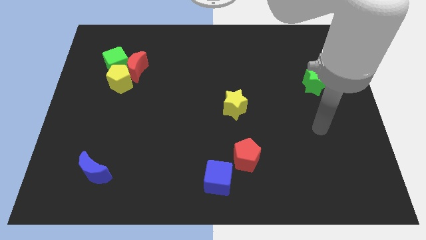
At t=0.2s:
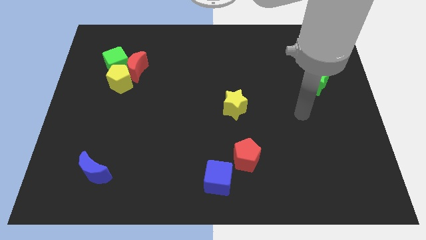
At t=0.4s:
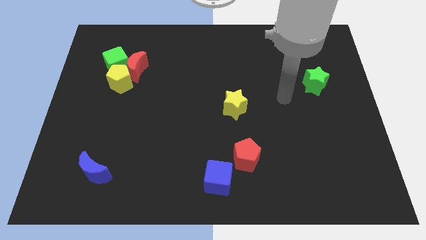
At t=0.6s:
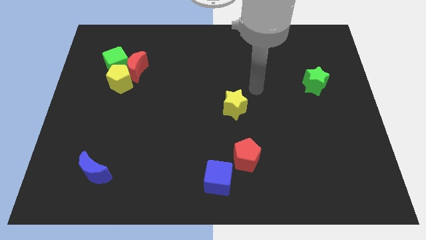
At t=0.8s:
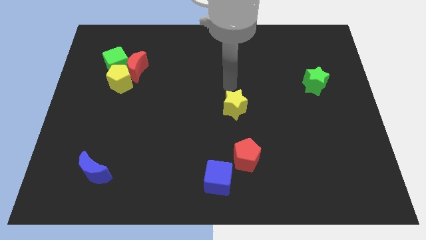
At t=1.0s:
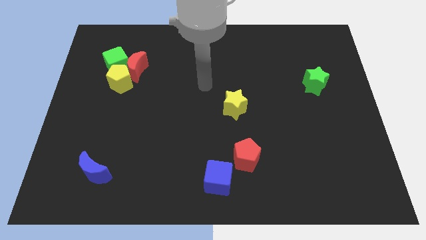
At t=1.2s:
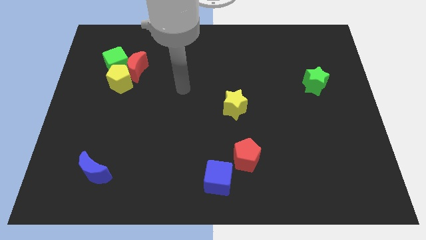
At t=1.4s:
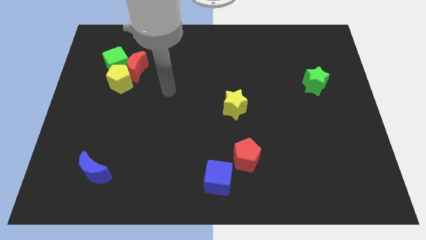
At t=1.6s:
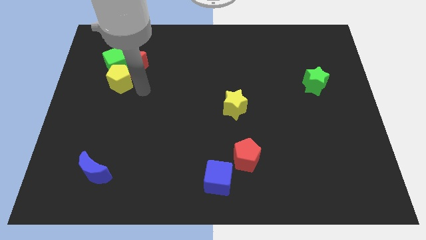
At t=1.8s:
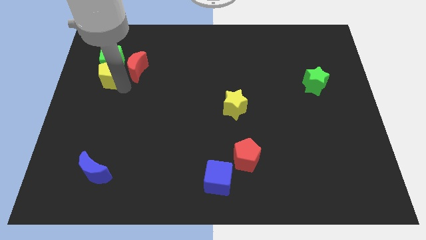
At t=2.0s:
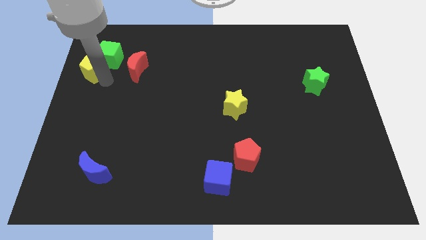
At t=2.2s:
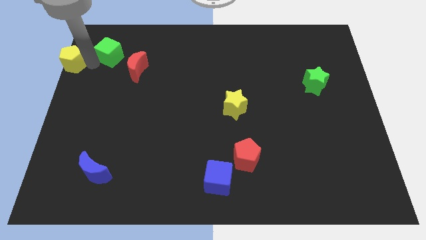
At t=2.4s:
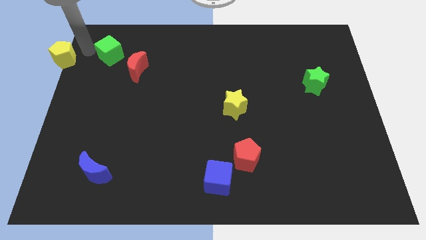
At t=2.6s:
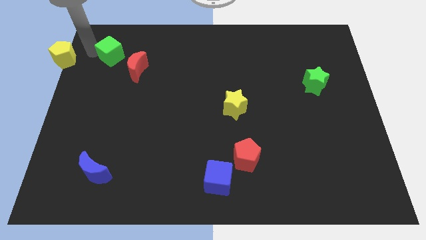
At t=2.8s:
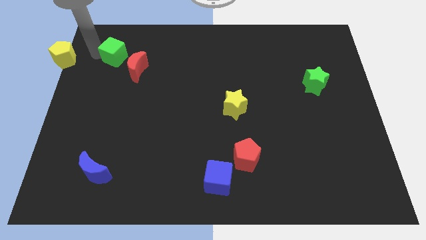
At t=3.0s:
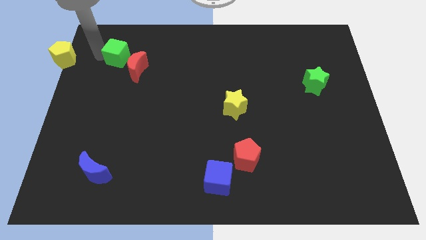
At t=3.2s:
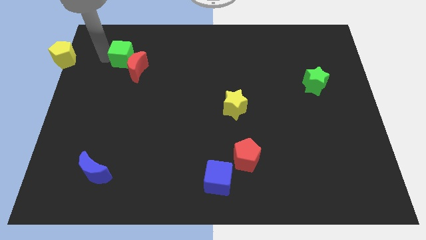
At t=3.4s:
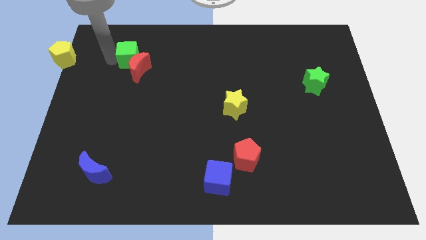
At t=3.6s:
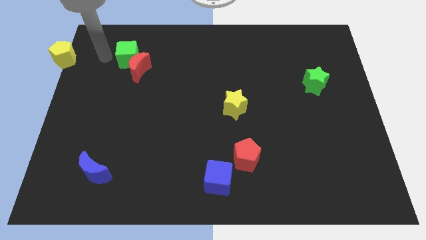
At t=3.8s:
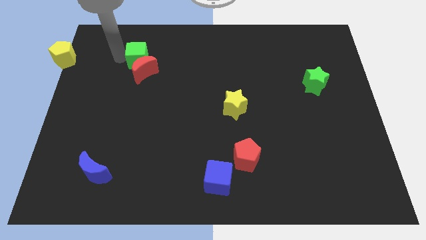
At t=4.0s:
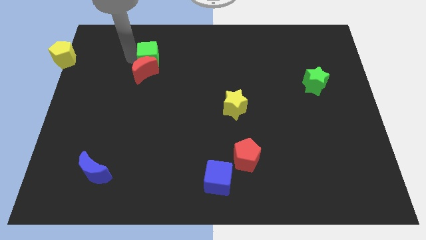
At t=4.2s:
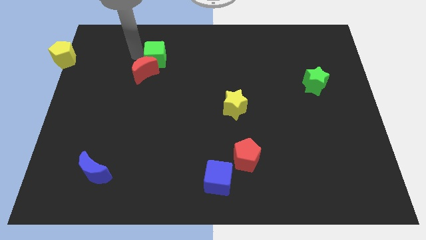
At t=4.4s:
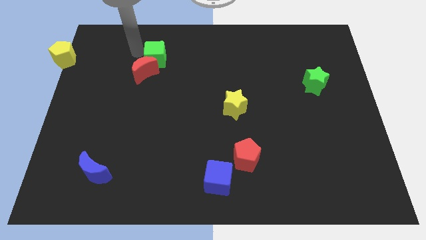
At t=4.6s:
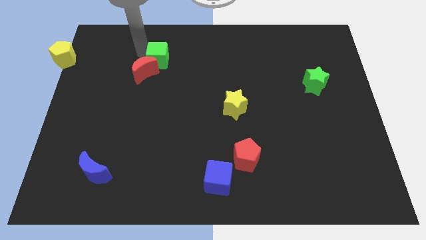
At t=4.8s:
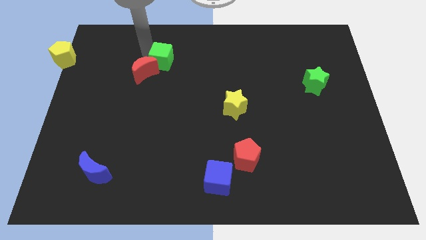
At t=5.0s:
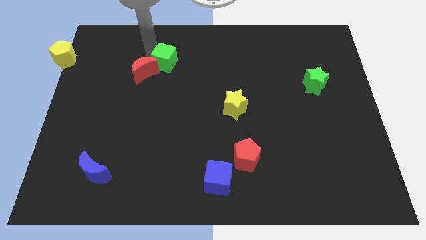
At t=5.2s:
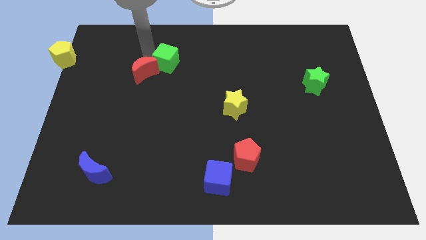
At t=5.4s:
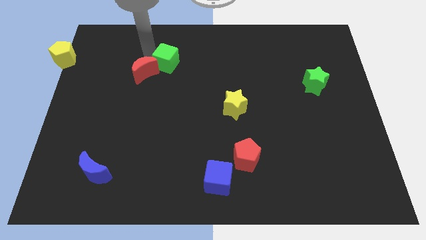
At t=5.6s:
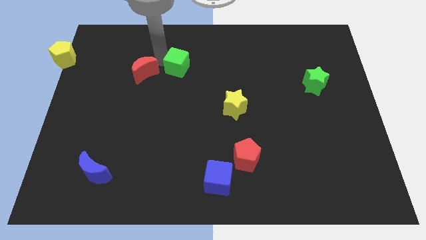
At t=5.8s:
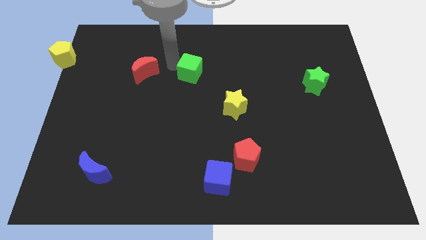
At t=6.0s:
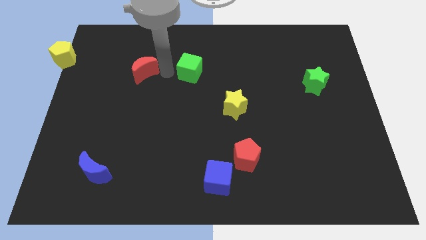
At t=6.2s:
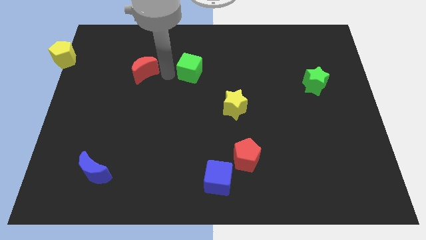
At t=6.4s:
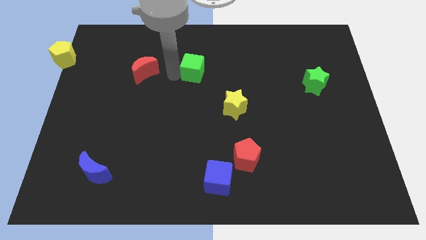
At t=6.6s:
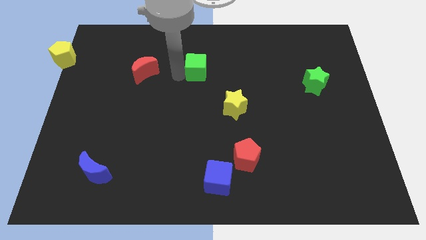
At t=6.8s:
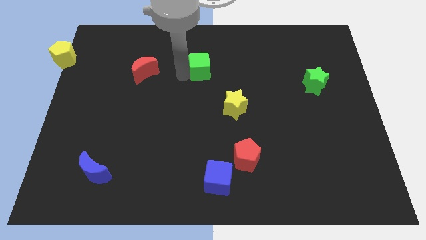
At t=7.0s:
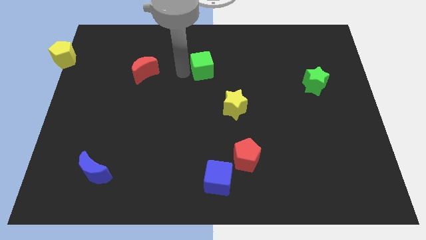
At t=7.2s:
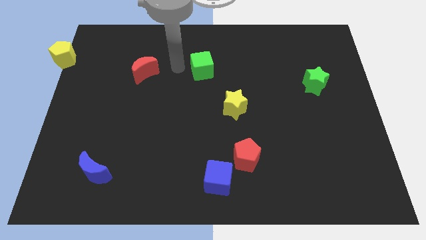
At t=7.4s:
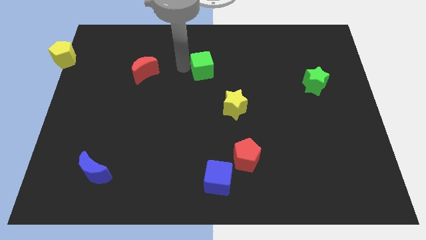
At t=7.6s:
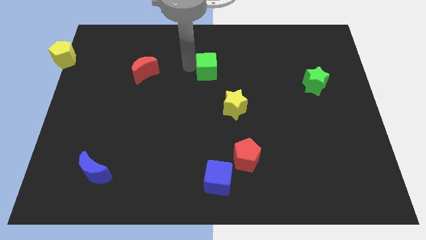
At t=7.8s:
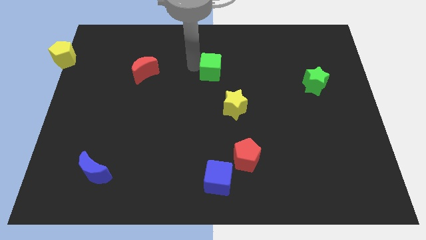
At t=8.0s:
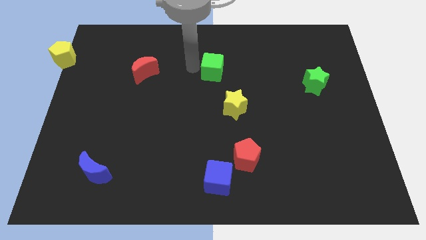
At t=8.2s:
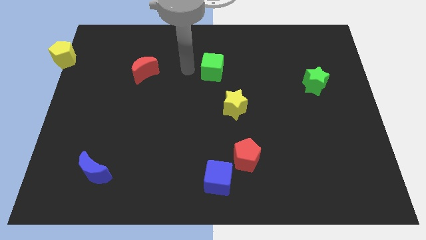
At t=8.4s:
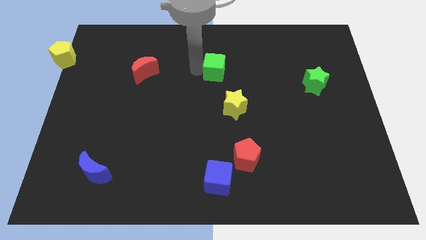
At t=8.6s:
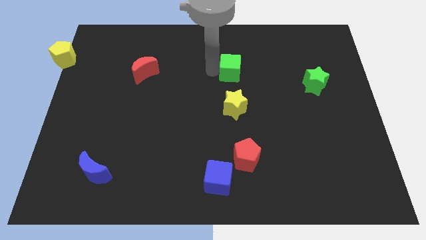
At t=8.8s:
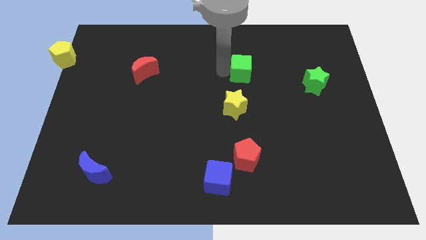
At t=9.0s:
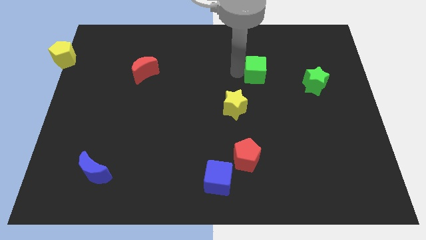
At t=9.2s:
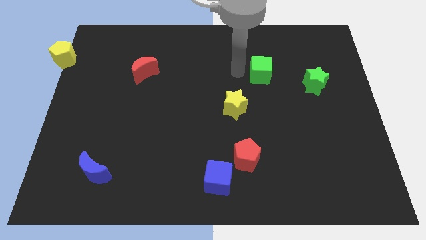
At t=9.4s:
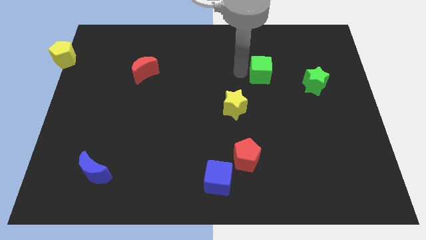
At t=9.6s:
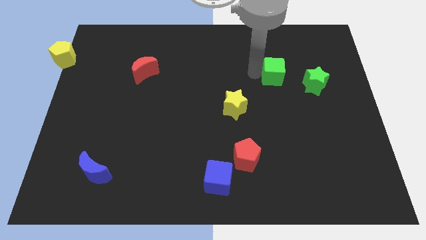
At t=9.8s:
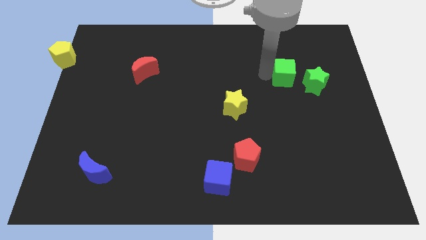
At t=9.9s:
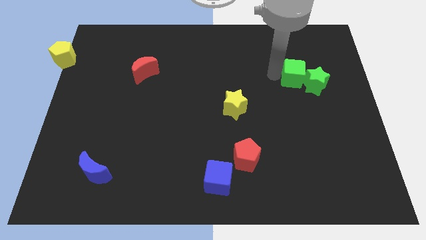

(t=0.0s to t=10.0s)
push the green cube next to the green star

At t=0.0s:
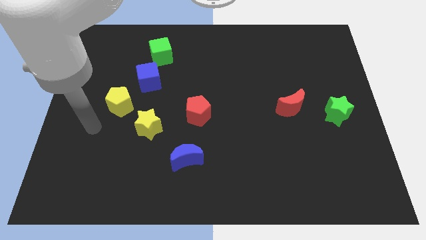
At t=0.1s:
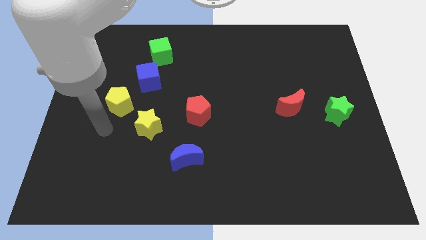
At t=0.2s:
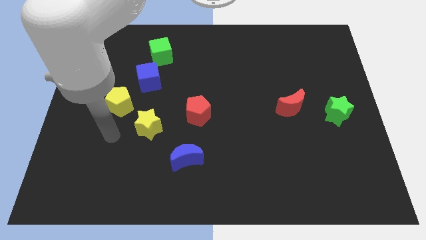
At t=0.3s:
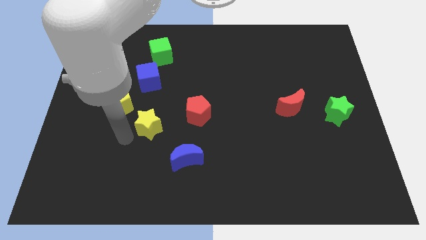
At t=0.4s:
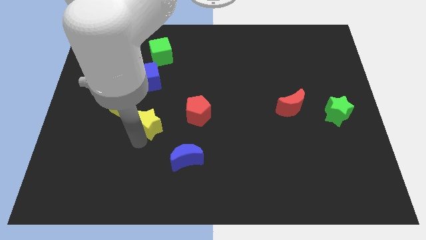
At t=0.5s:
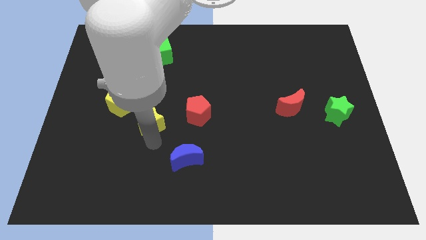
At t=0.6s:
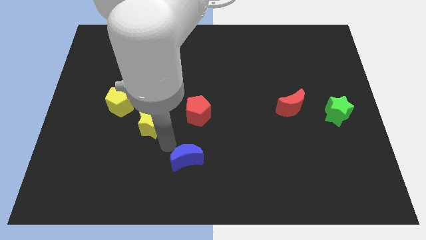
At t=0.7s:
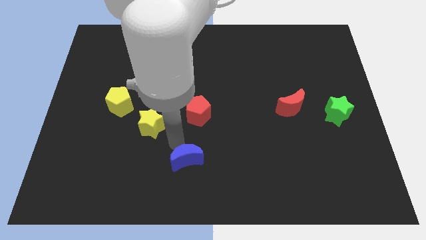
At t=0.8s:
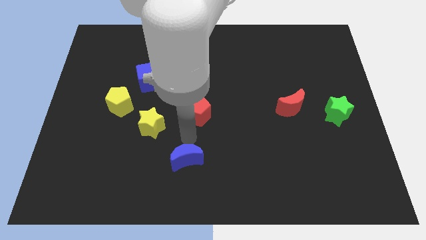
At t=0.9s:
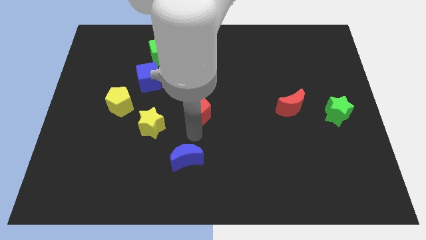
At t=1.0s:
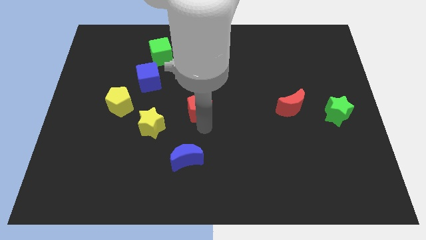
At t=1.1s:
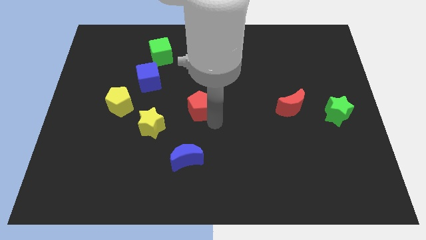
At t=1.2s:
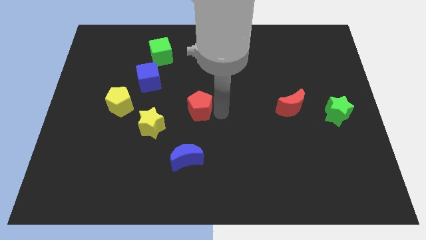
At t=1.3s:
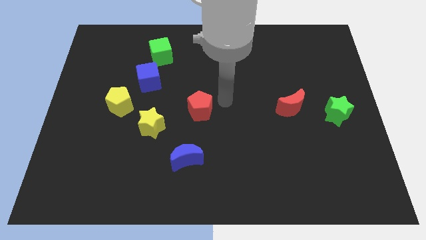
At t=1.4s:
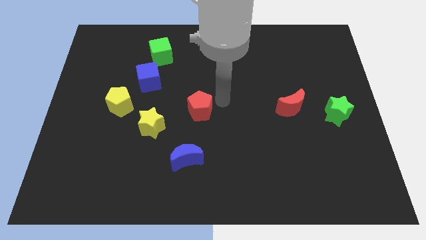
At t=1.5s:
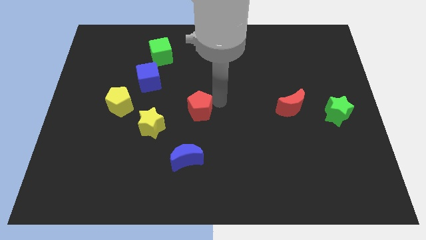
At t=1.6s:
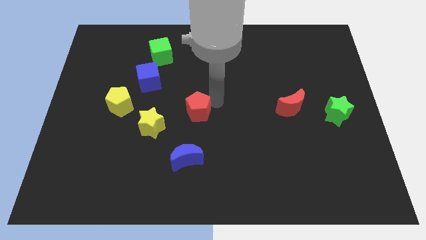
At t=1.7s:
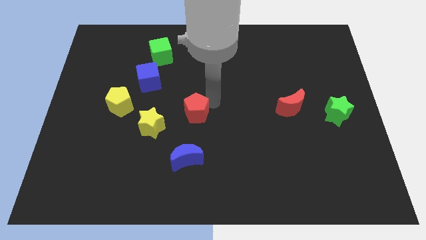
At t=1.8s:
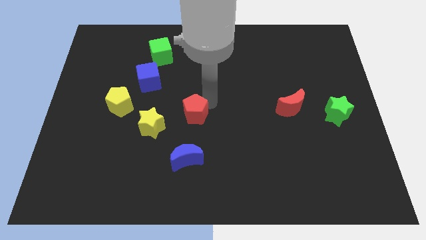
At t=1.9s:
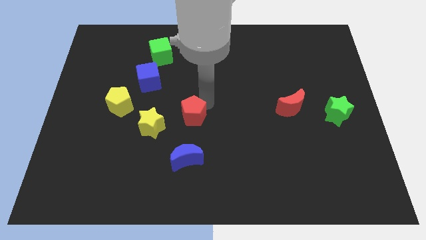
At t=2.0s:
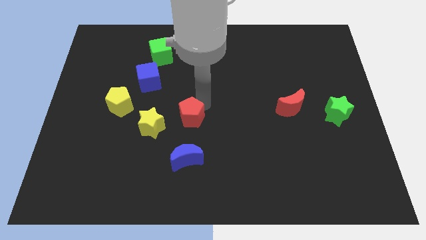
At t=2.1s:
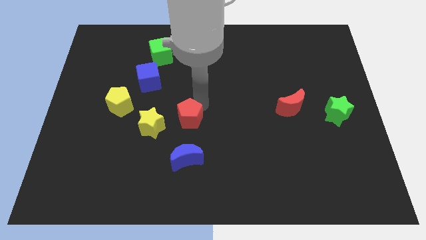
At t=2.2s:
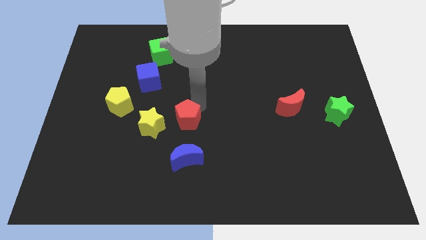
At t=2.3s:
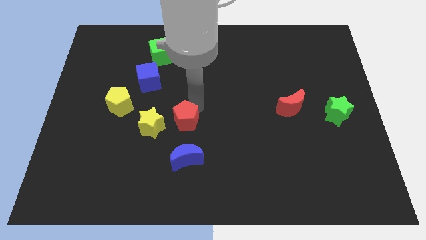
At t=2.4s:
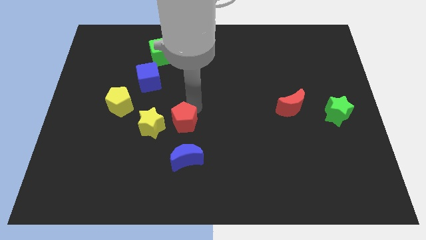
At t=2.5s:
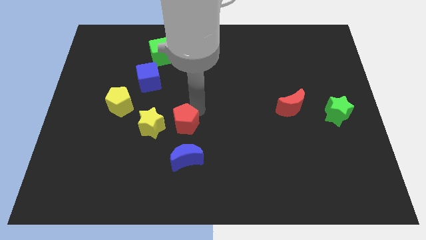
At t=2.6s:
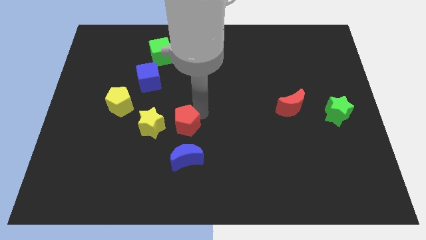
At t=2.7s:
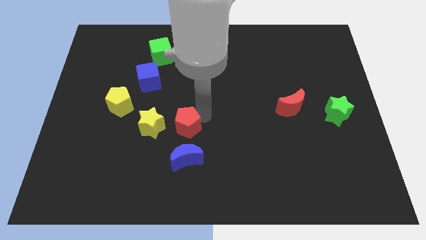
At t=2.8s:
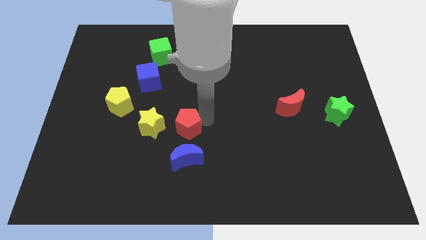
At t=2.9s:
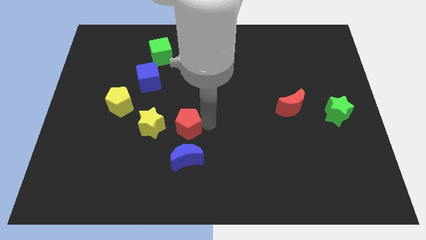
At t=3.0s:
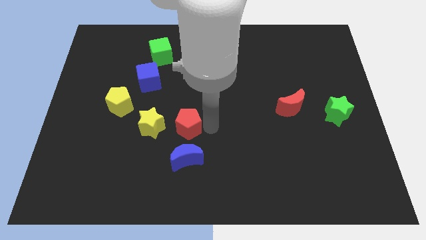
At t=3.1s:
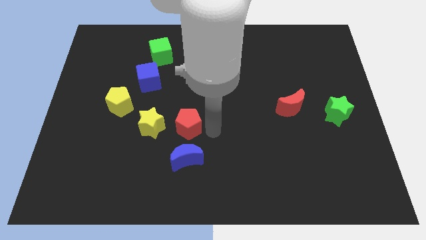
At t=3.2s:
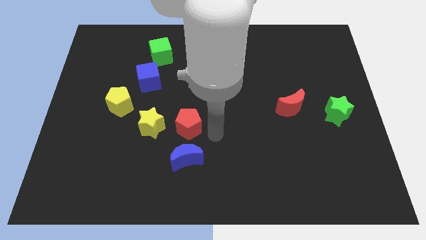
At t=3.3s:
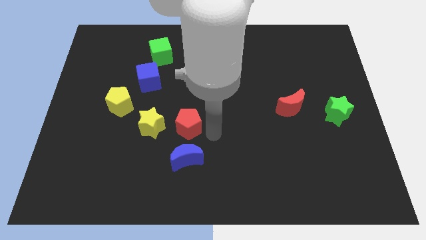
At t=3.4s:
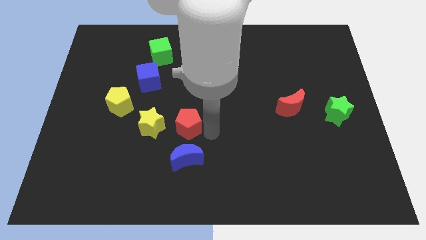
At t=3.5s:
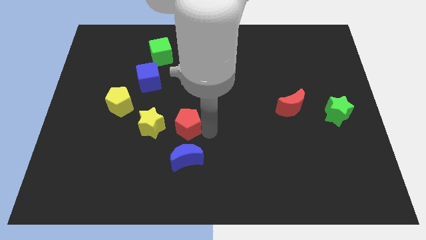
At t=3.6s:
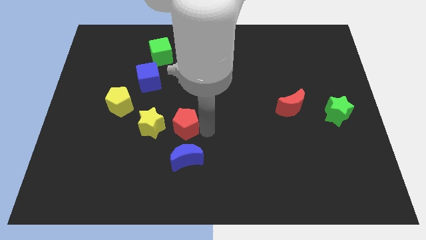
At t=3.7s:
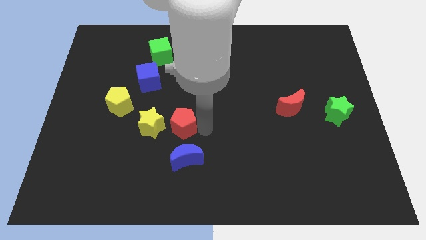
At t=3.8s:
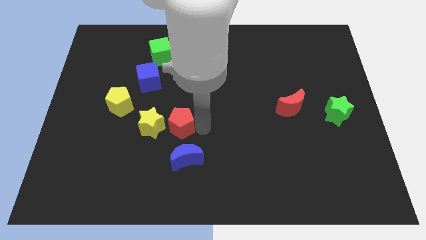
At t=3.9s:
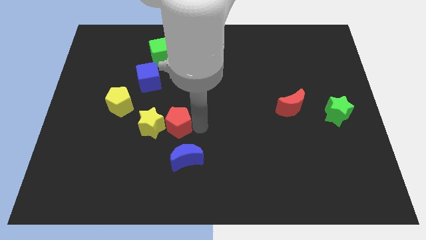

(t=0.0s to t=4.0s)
put the red pentagon close to the yellow star
